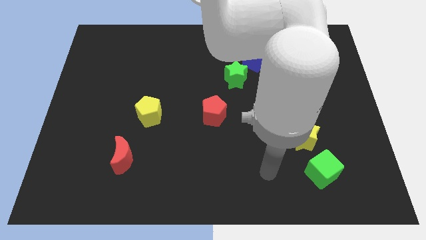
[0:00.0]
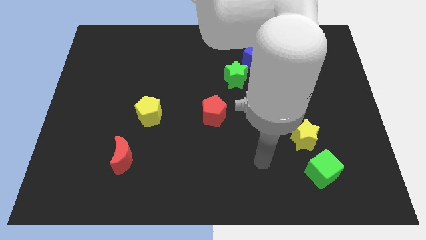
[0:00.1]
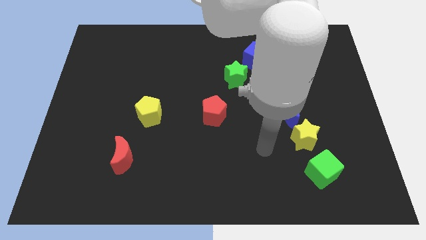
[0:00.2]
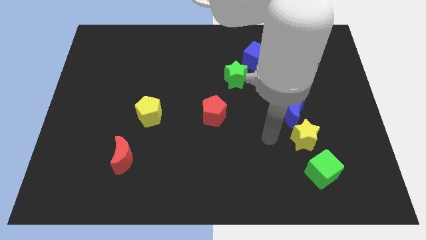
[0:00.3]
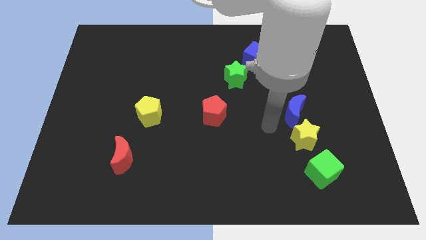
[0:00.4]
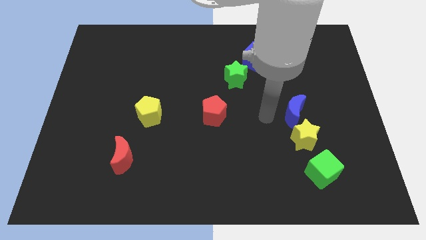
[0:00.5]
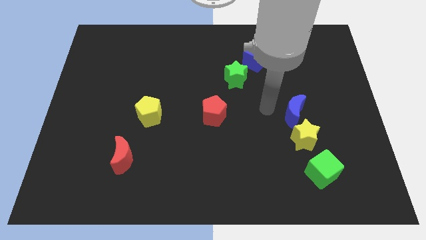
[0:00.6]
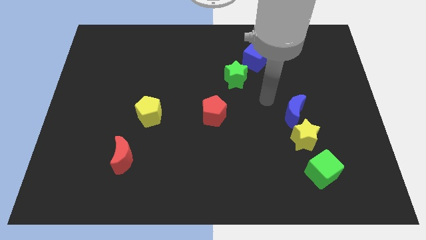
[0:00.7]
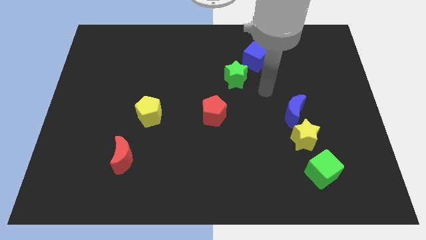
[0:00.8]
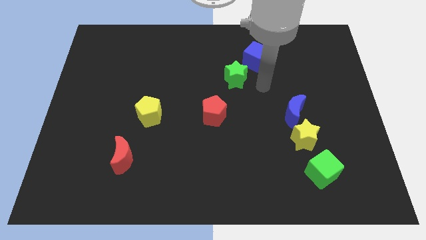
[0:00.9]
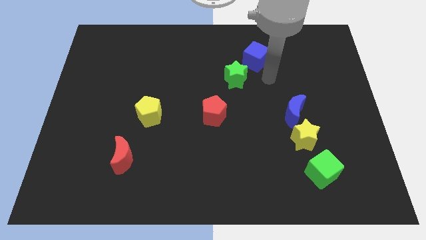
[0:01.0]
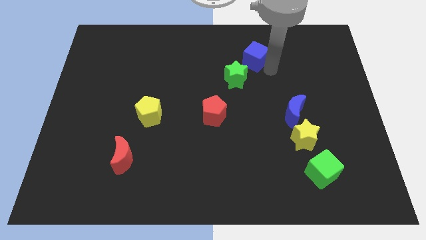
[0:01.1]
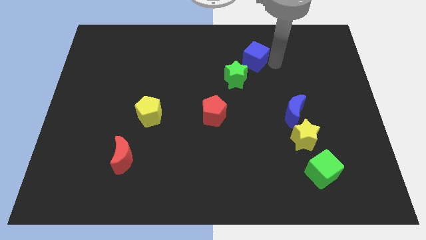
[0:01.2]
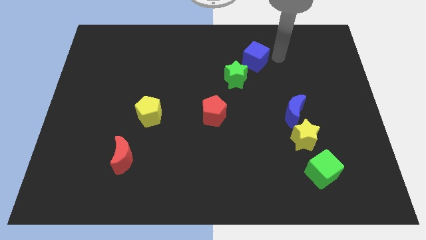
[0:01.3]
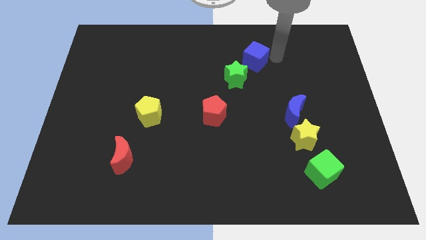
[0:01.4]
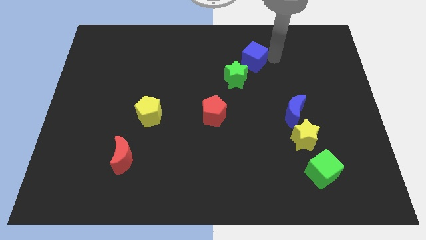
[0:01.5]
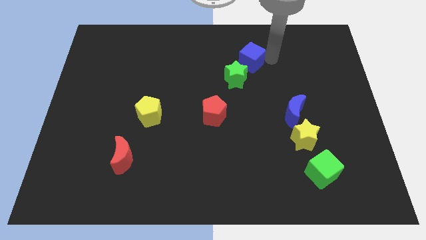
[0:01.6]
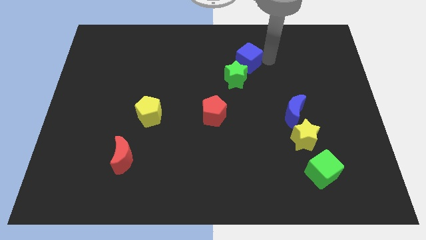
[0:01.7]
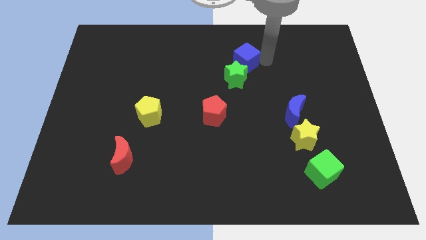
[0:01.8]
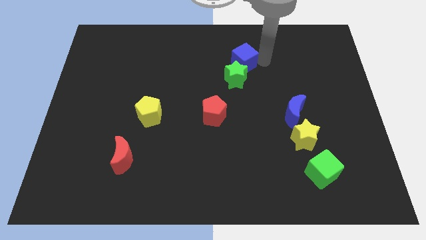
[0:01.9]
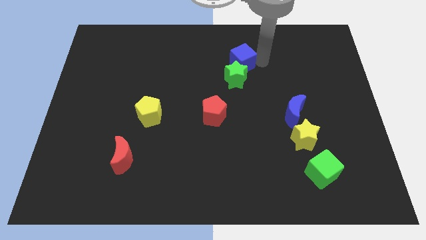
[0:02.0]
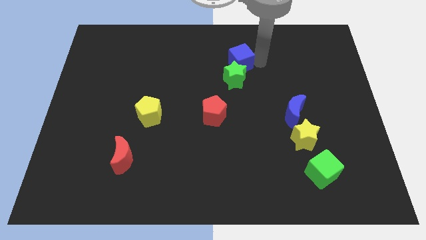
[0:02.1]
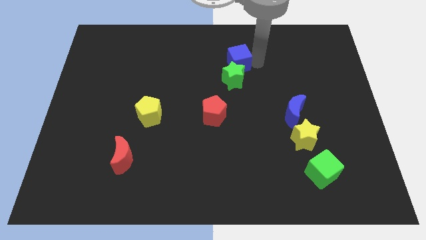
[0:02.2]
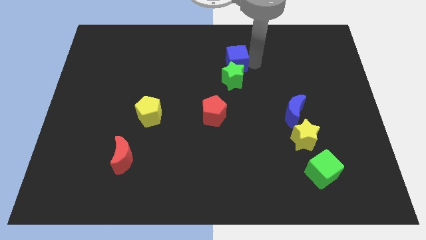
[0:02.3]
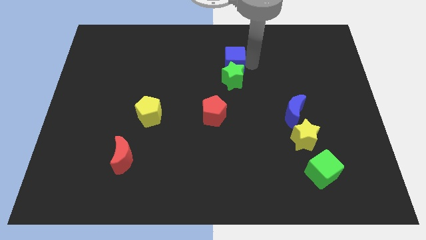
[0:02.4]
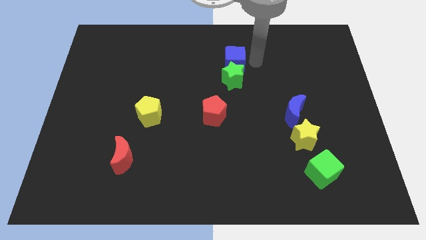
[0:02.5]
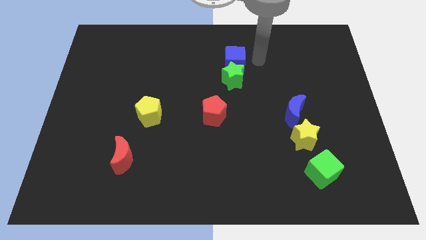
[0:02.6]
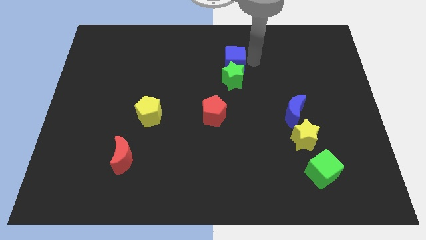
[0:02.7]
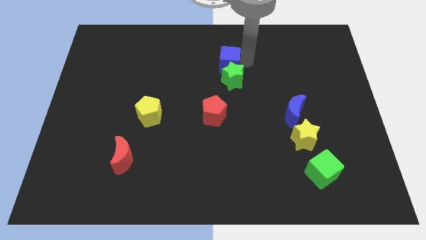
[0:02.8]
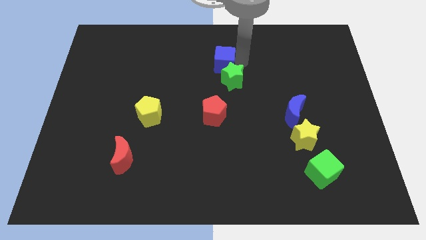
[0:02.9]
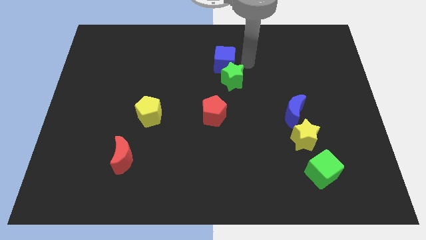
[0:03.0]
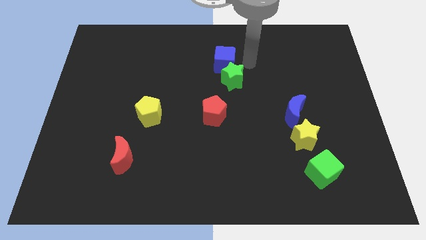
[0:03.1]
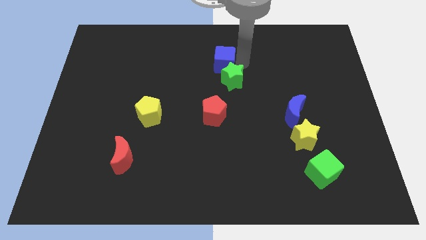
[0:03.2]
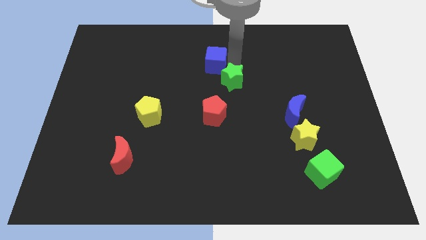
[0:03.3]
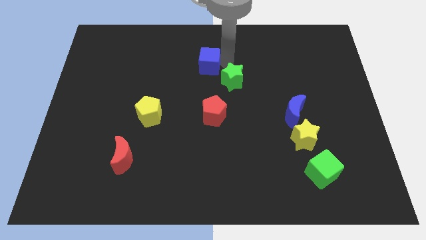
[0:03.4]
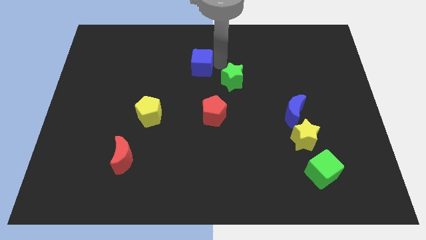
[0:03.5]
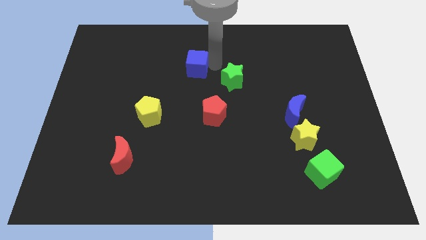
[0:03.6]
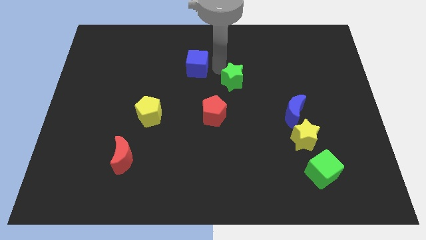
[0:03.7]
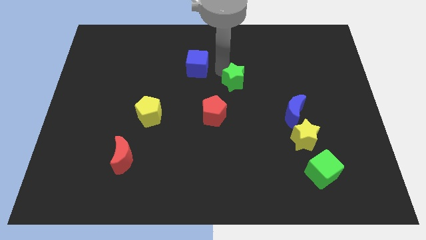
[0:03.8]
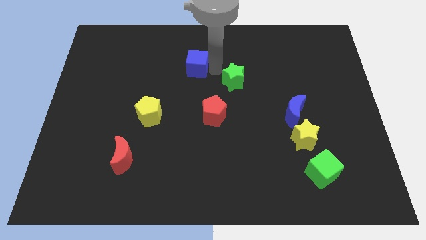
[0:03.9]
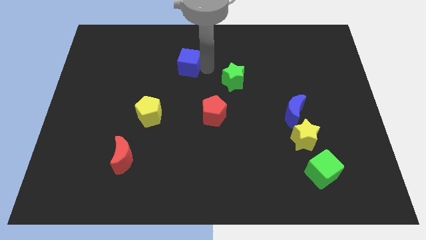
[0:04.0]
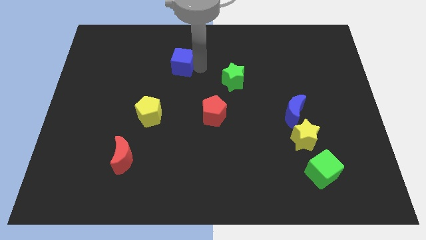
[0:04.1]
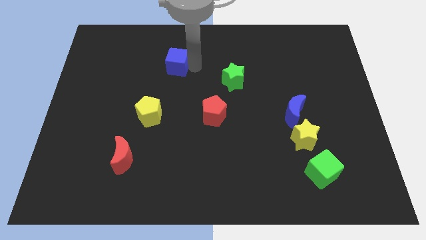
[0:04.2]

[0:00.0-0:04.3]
push the blue cube to the left

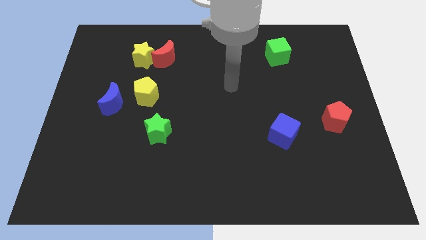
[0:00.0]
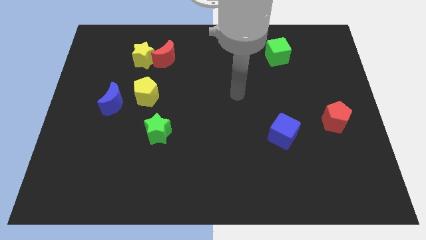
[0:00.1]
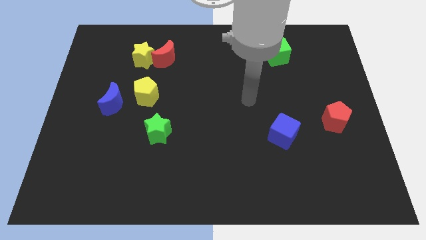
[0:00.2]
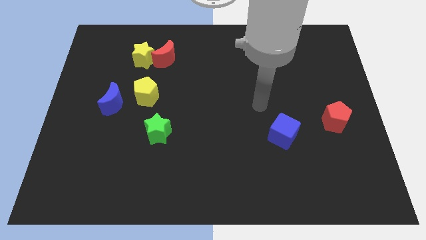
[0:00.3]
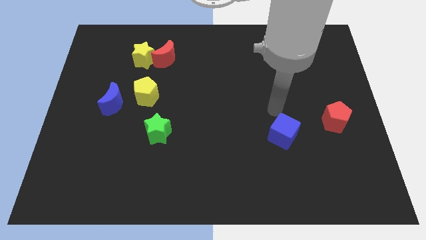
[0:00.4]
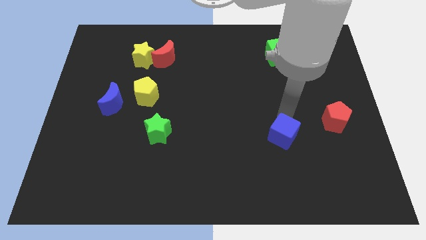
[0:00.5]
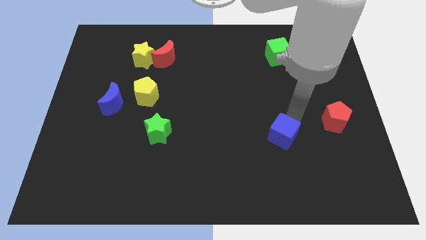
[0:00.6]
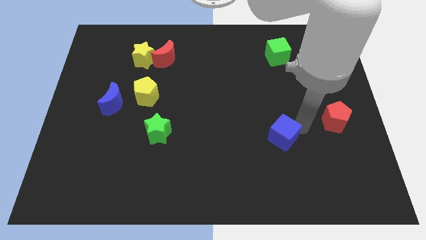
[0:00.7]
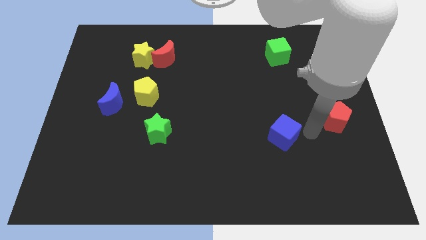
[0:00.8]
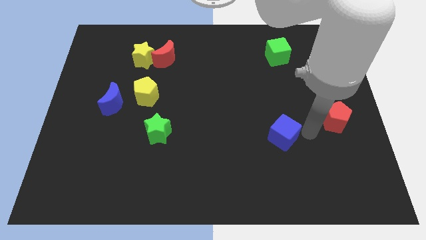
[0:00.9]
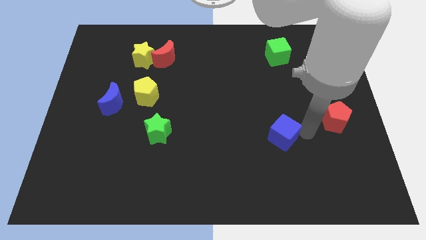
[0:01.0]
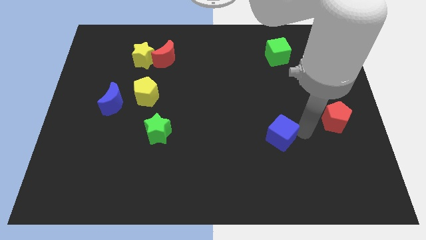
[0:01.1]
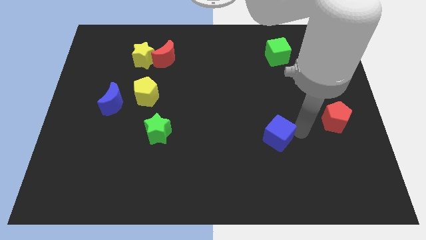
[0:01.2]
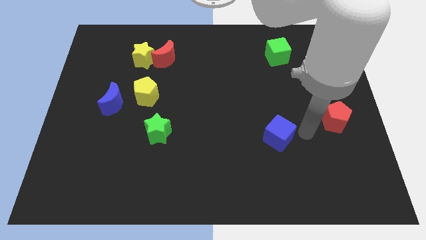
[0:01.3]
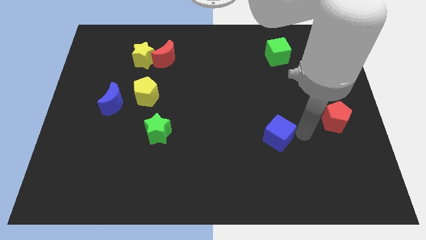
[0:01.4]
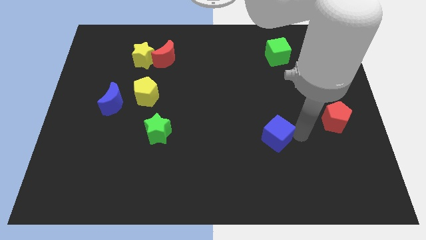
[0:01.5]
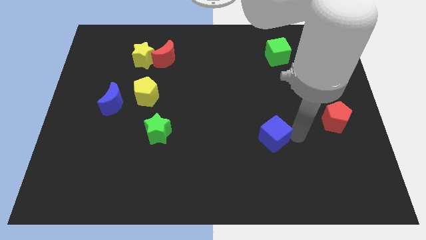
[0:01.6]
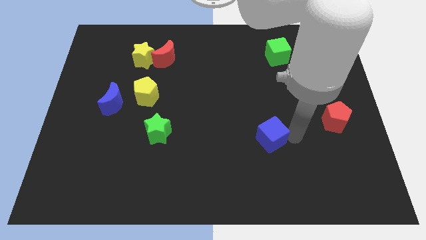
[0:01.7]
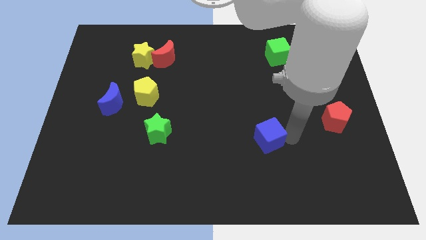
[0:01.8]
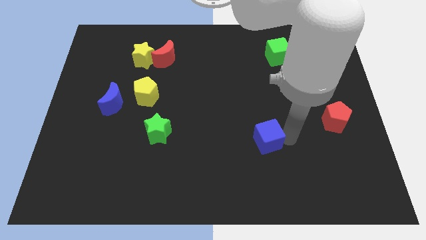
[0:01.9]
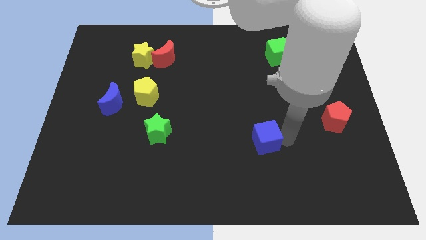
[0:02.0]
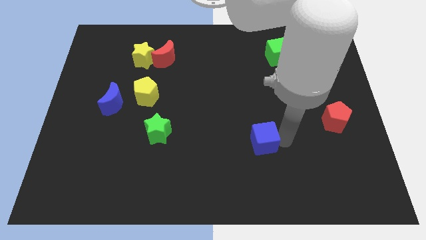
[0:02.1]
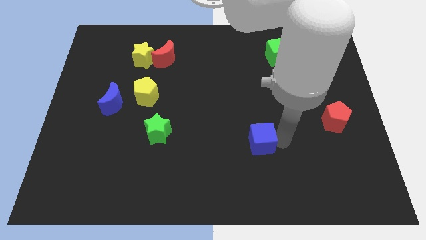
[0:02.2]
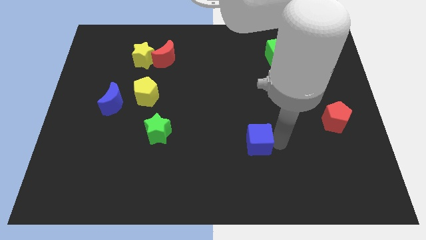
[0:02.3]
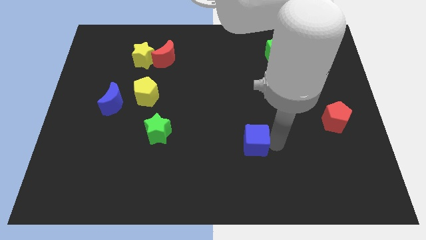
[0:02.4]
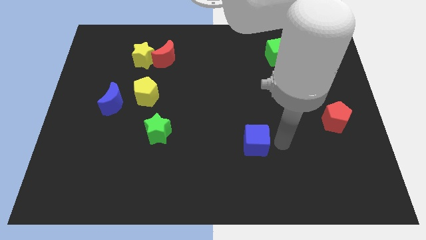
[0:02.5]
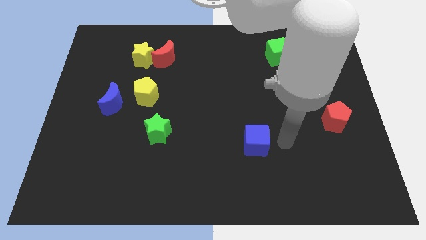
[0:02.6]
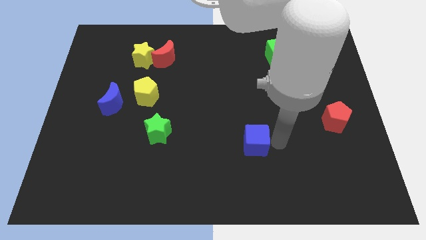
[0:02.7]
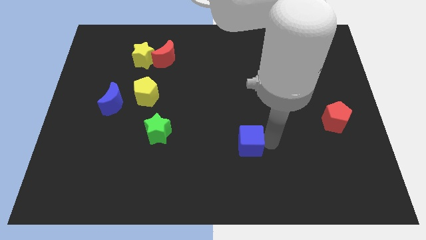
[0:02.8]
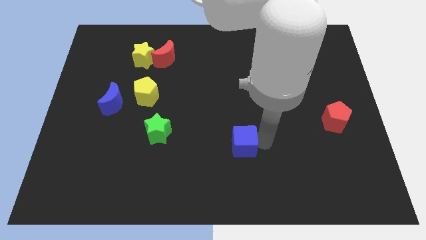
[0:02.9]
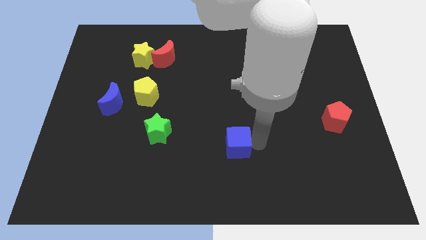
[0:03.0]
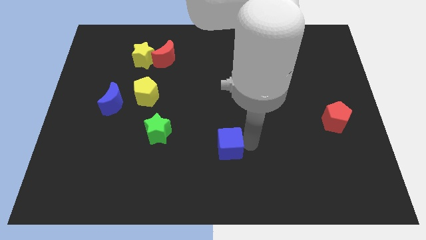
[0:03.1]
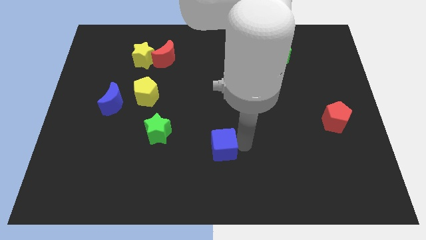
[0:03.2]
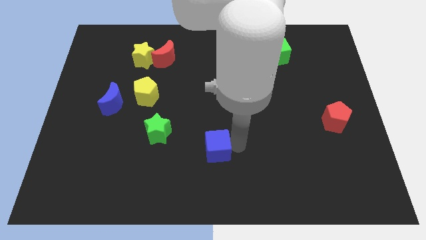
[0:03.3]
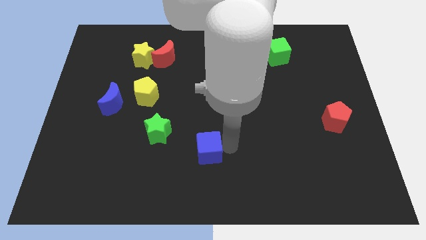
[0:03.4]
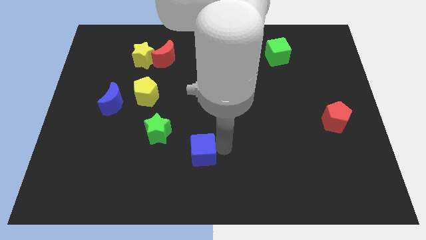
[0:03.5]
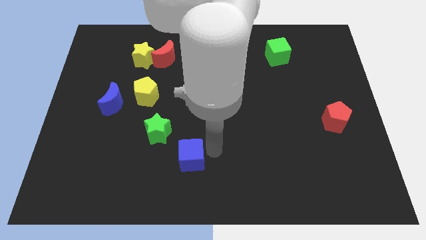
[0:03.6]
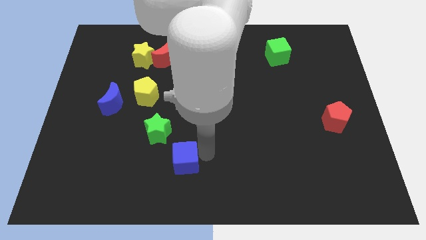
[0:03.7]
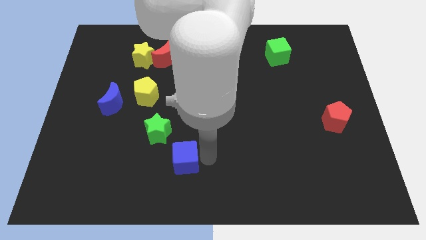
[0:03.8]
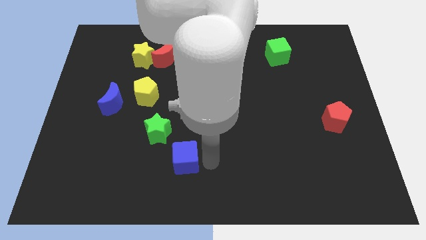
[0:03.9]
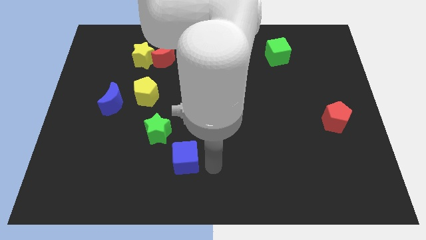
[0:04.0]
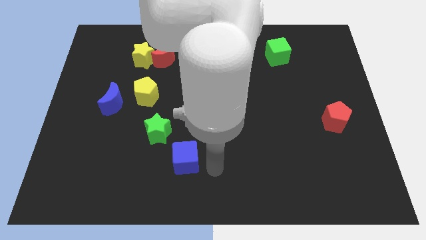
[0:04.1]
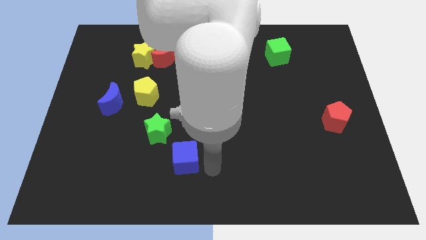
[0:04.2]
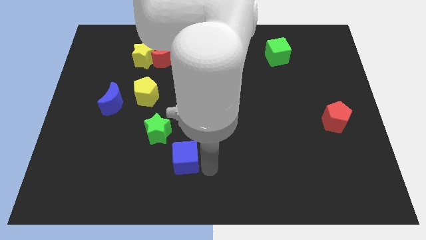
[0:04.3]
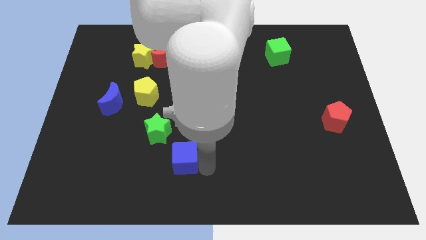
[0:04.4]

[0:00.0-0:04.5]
push the blue cube left
